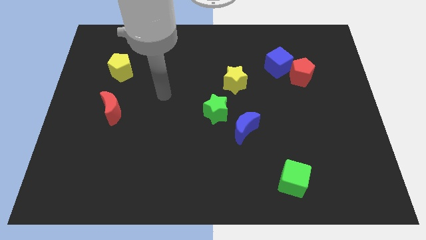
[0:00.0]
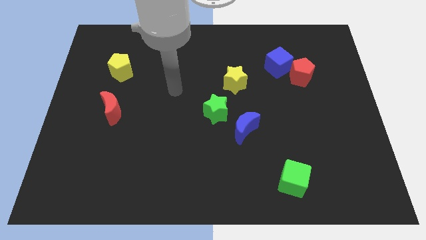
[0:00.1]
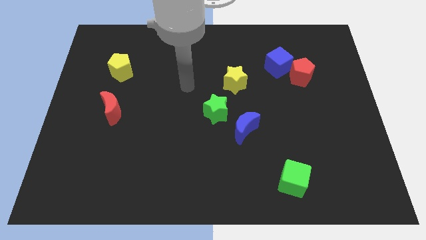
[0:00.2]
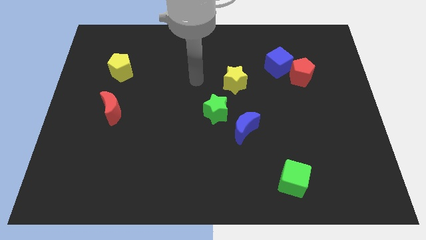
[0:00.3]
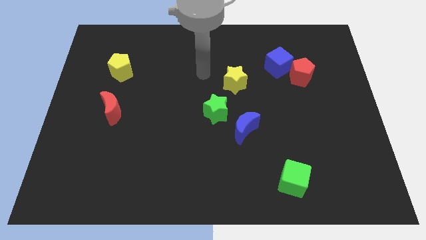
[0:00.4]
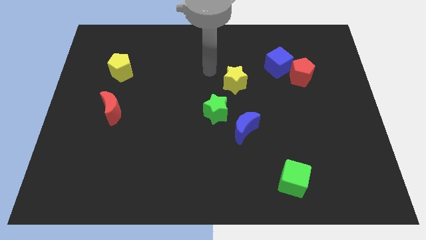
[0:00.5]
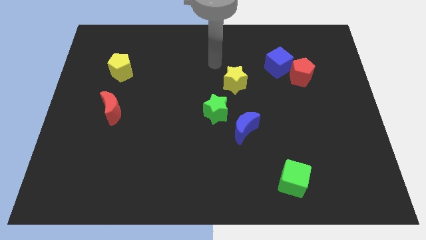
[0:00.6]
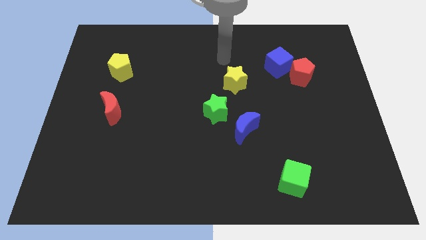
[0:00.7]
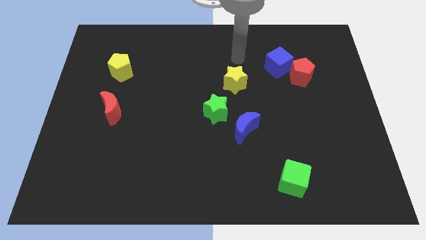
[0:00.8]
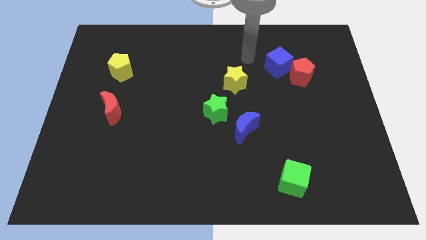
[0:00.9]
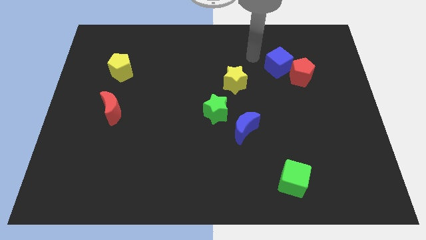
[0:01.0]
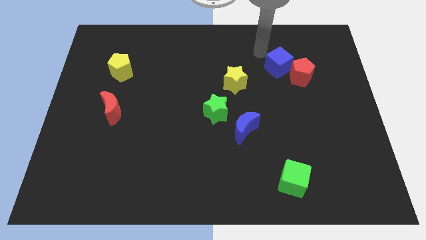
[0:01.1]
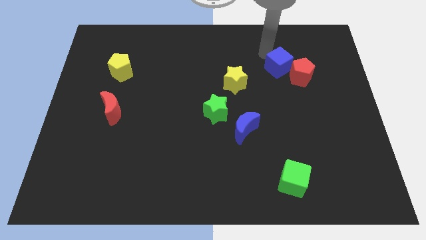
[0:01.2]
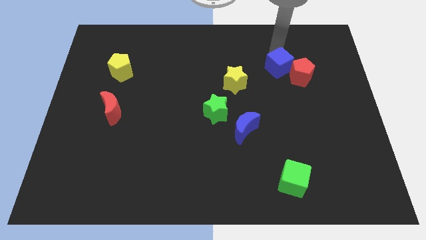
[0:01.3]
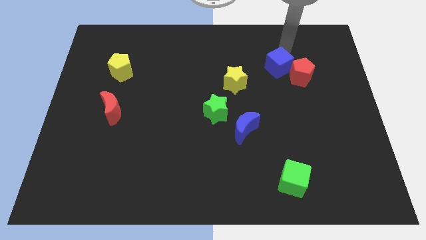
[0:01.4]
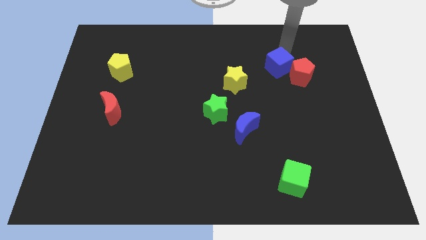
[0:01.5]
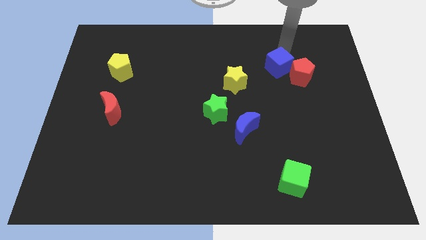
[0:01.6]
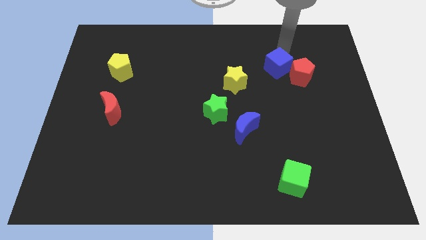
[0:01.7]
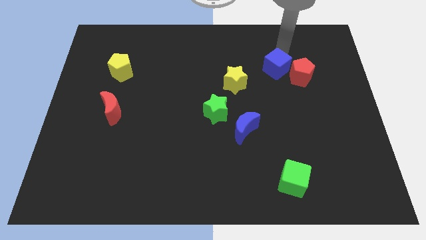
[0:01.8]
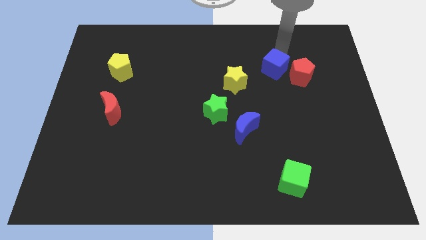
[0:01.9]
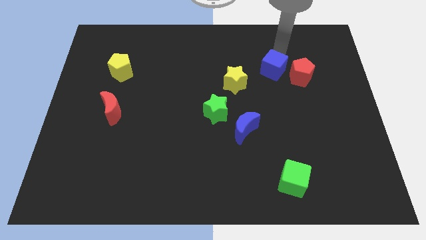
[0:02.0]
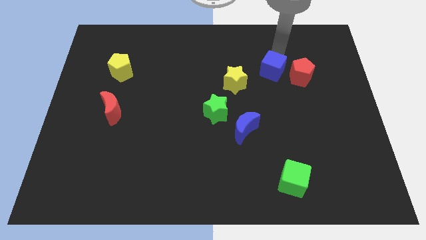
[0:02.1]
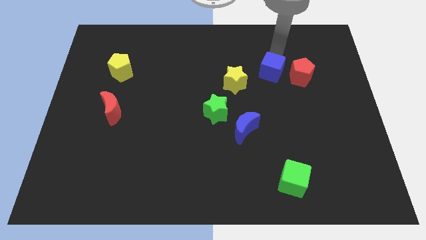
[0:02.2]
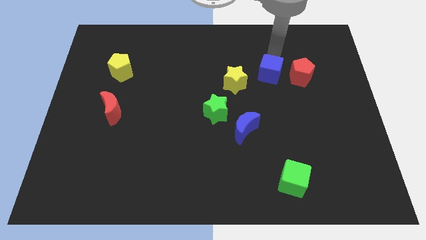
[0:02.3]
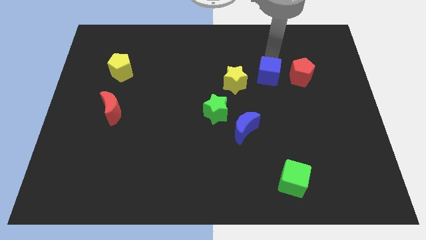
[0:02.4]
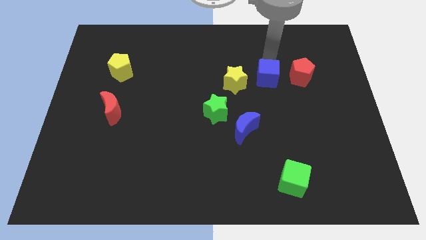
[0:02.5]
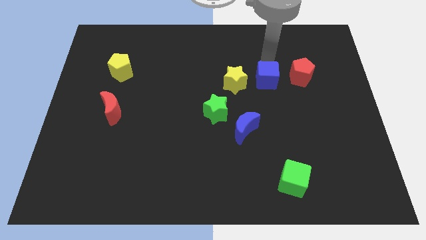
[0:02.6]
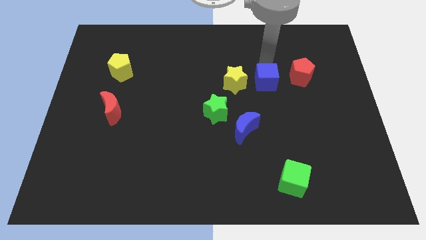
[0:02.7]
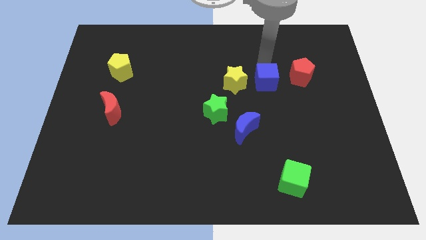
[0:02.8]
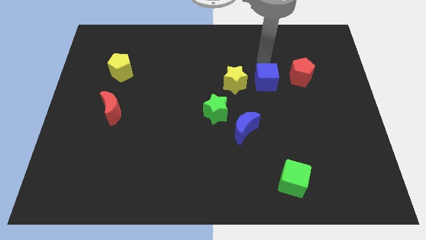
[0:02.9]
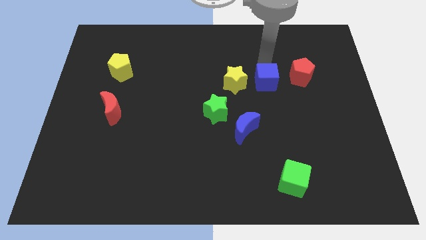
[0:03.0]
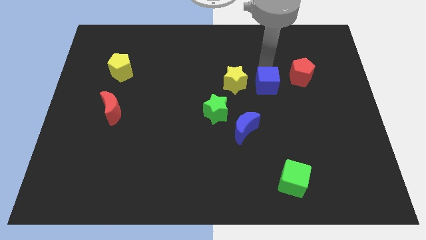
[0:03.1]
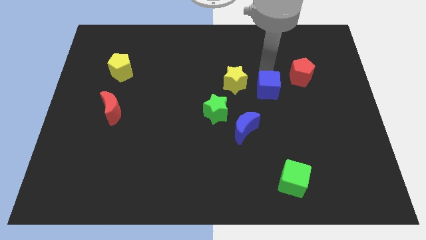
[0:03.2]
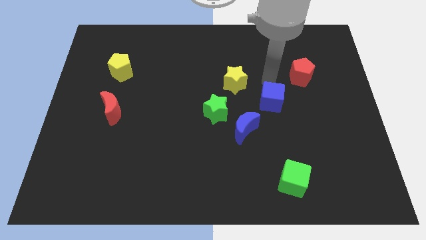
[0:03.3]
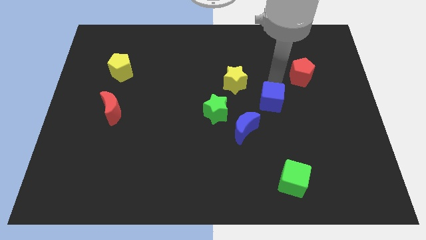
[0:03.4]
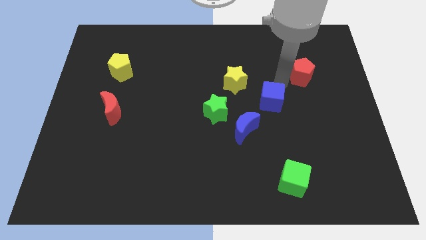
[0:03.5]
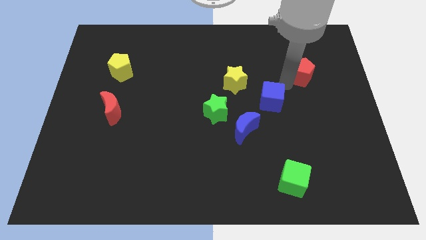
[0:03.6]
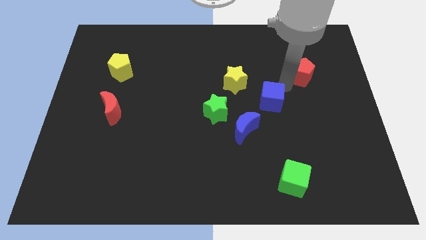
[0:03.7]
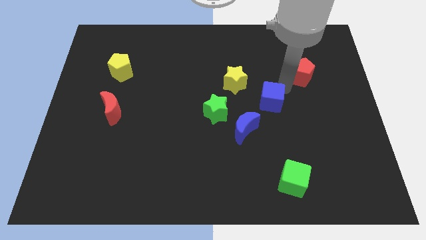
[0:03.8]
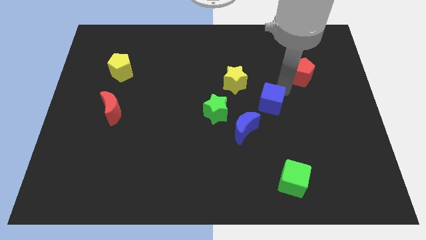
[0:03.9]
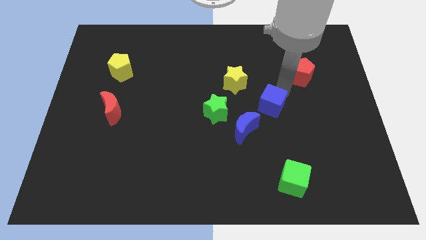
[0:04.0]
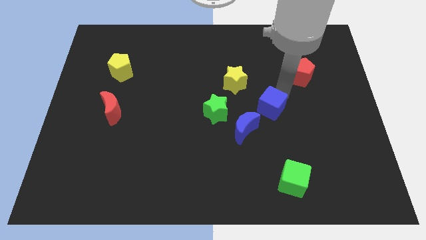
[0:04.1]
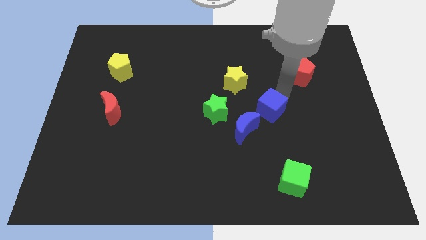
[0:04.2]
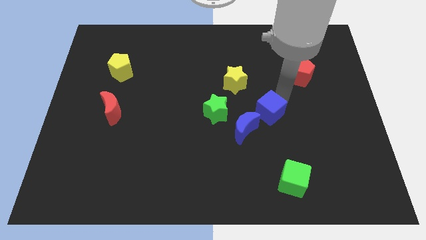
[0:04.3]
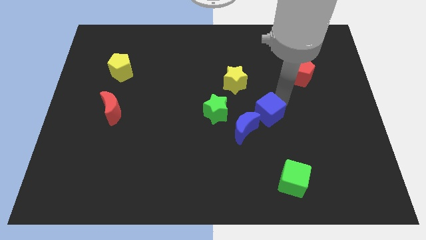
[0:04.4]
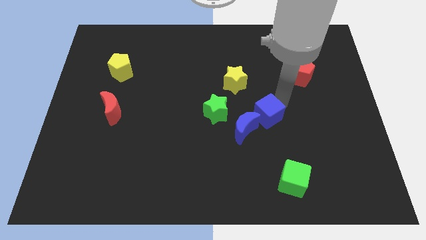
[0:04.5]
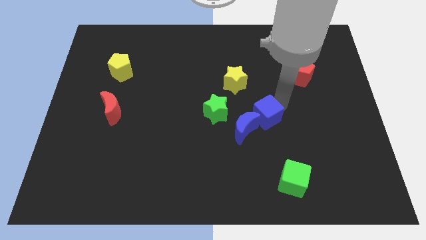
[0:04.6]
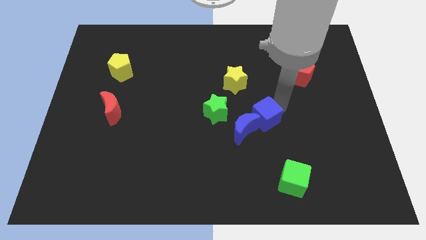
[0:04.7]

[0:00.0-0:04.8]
put the blue cube towards the blue moon

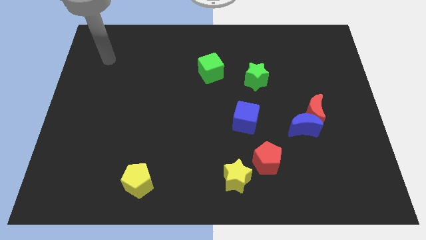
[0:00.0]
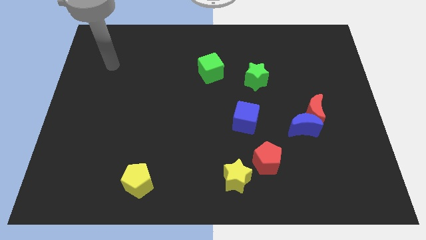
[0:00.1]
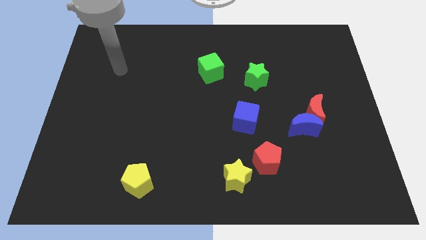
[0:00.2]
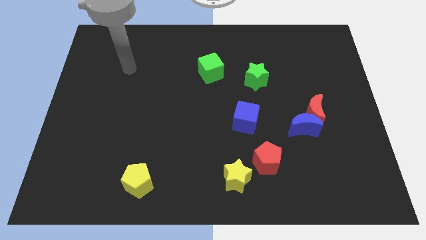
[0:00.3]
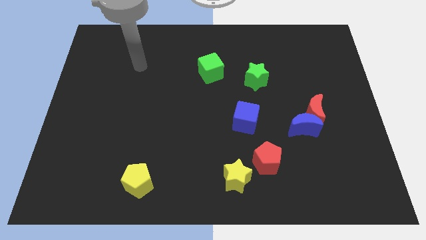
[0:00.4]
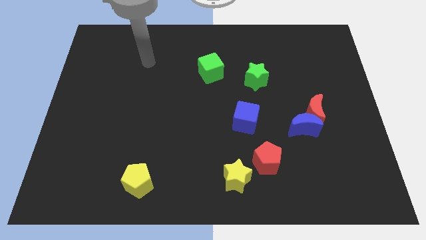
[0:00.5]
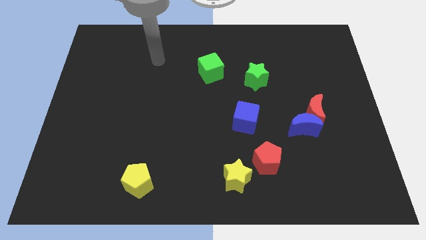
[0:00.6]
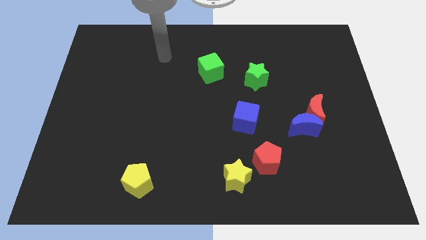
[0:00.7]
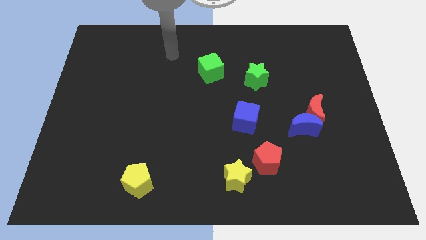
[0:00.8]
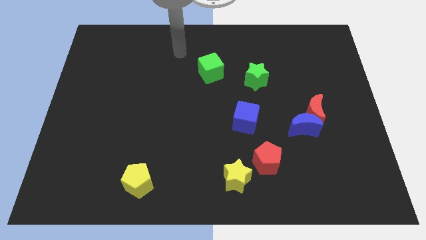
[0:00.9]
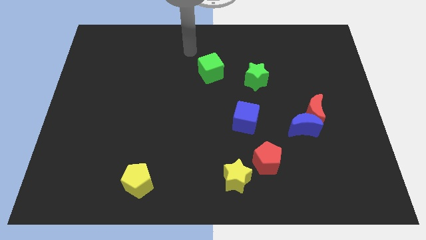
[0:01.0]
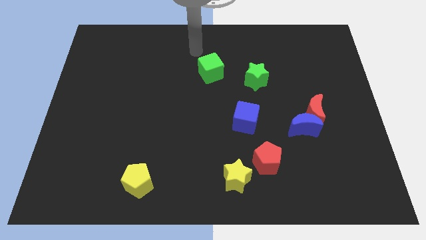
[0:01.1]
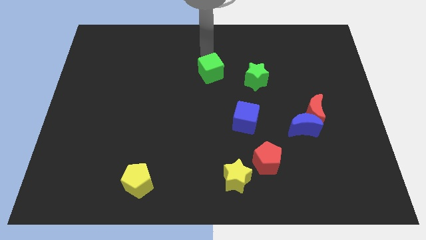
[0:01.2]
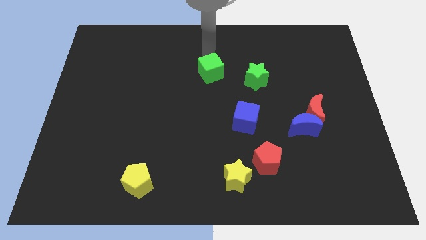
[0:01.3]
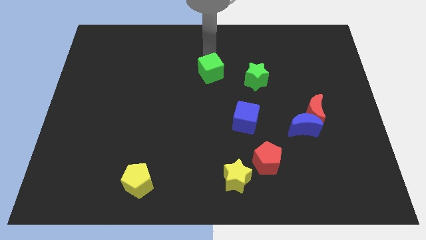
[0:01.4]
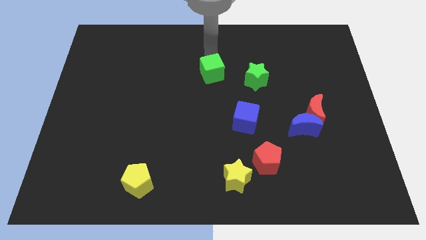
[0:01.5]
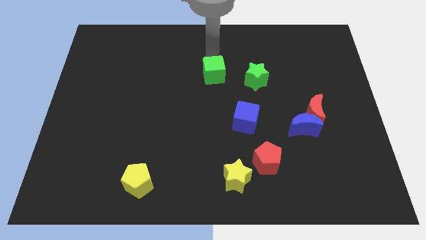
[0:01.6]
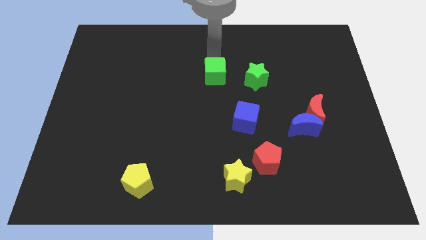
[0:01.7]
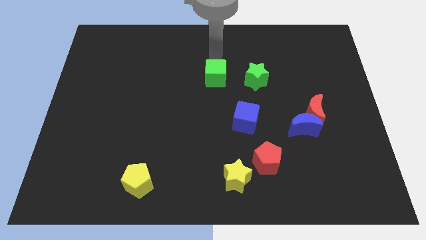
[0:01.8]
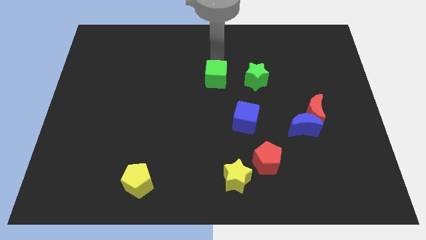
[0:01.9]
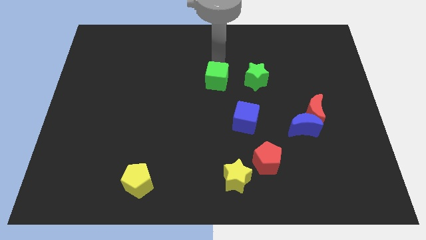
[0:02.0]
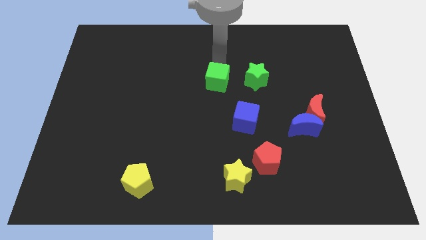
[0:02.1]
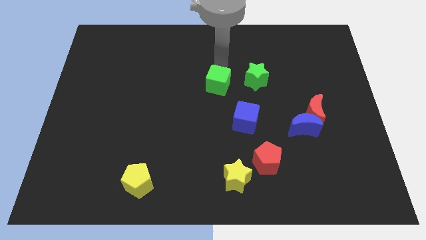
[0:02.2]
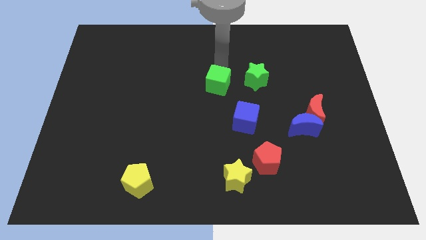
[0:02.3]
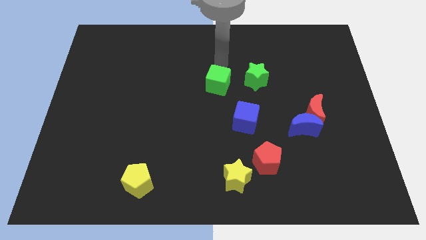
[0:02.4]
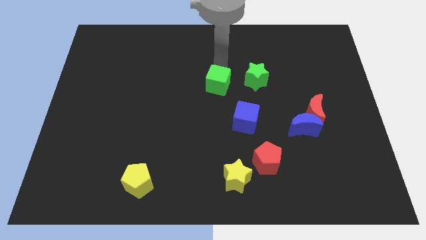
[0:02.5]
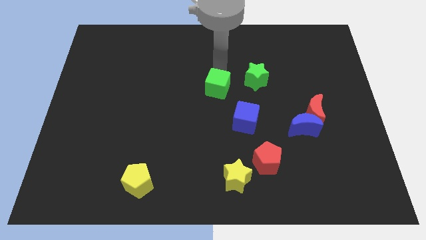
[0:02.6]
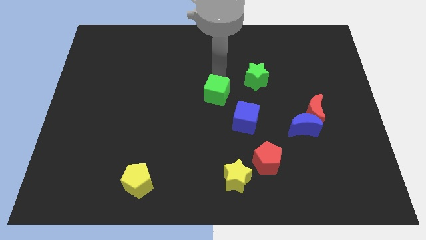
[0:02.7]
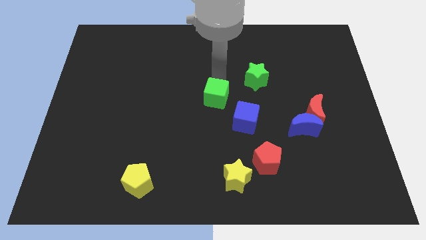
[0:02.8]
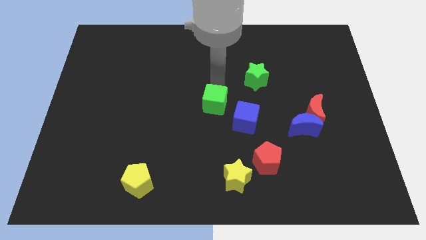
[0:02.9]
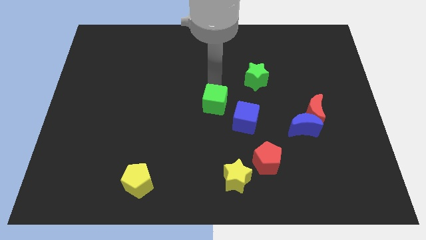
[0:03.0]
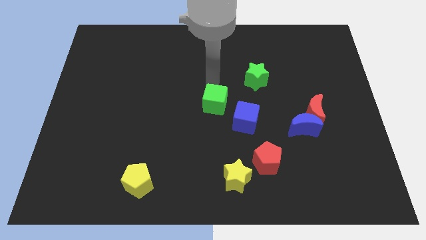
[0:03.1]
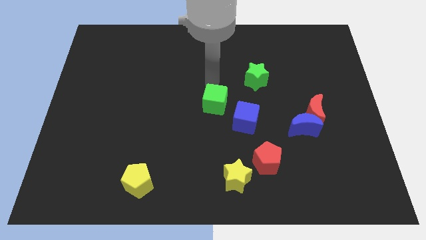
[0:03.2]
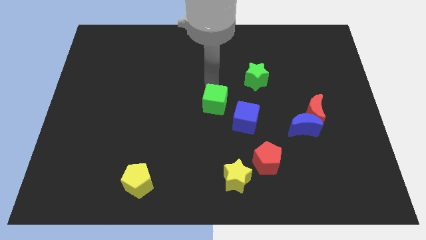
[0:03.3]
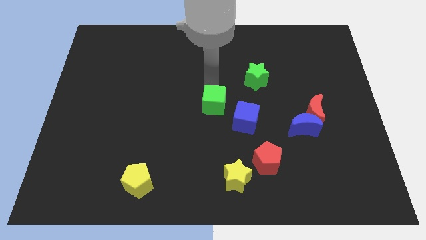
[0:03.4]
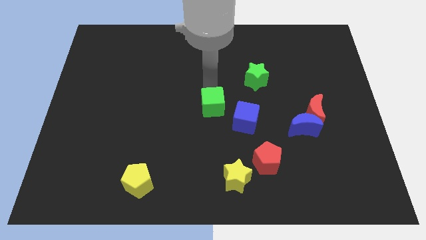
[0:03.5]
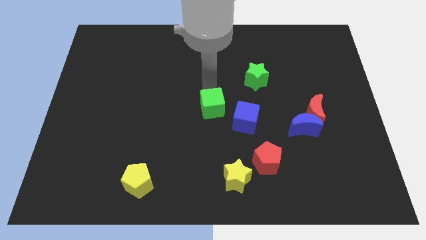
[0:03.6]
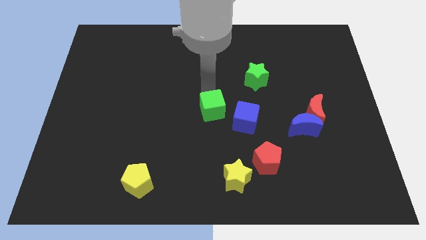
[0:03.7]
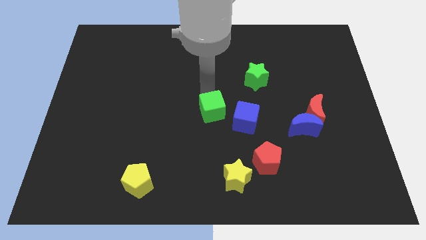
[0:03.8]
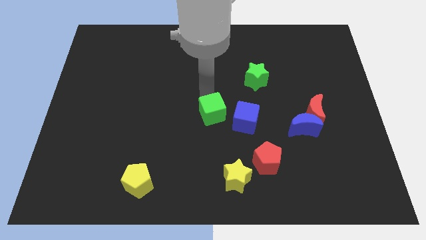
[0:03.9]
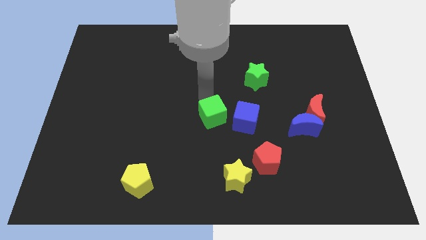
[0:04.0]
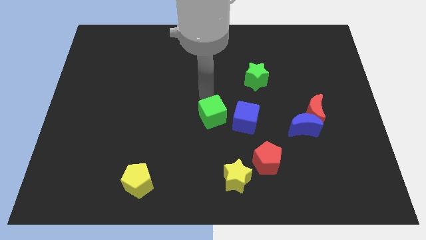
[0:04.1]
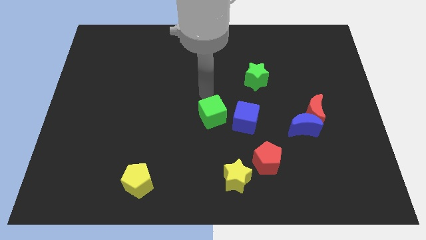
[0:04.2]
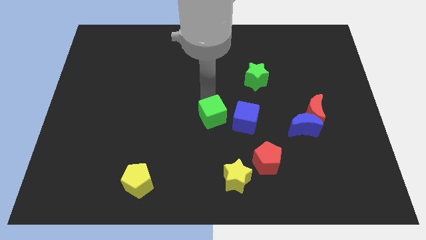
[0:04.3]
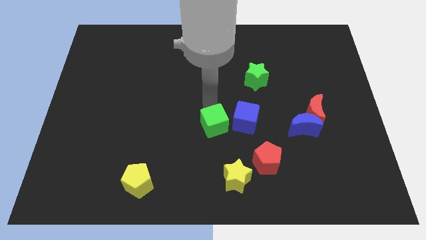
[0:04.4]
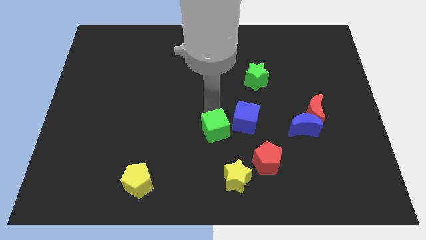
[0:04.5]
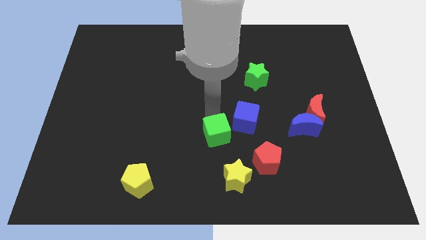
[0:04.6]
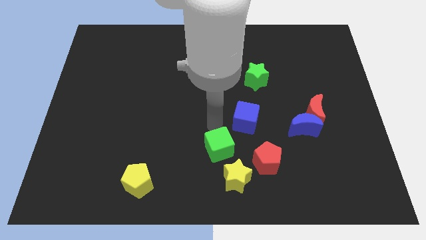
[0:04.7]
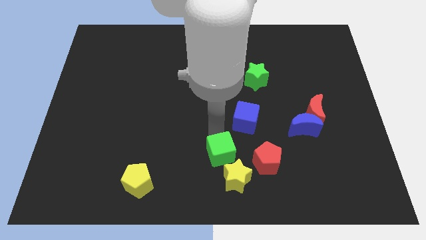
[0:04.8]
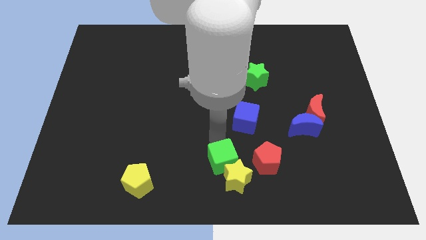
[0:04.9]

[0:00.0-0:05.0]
move the green cube next to the yellow star
